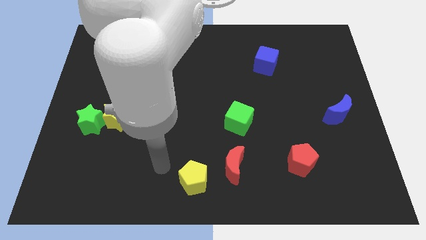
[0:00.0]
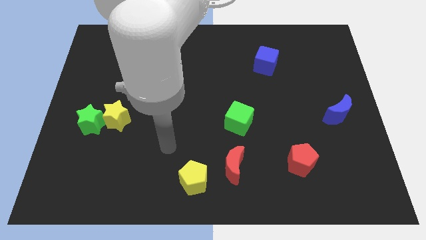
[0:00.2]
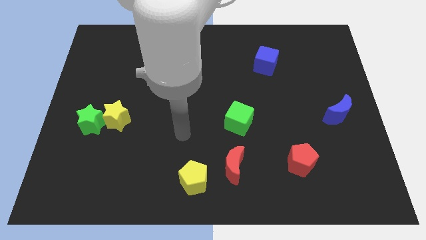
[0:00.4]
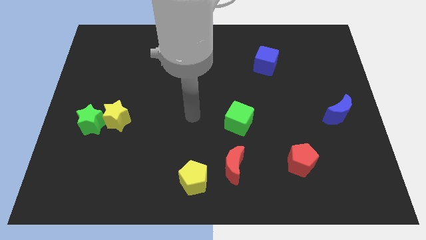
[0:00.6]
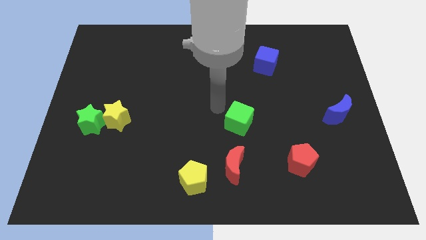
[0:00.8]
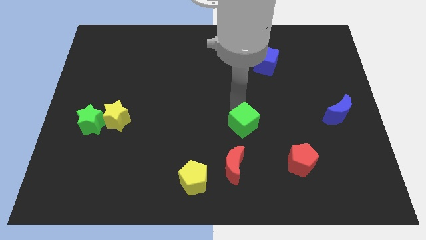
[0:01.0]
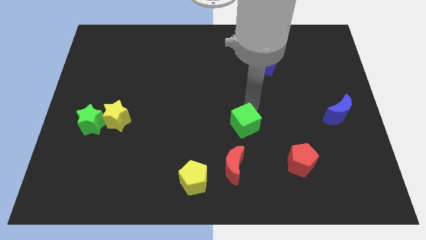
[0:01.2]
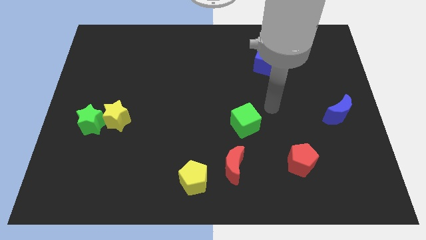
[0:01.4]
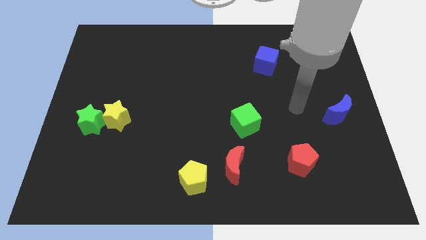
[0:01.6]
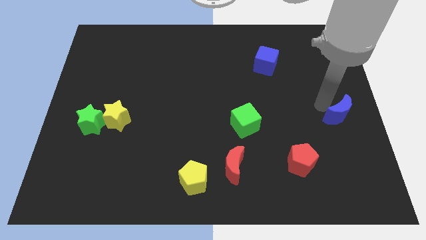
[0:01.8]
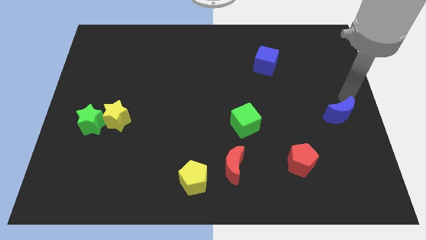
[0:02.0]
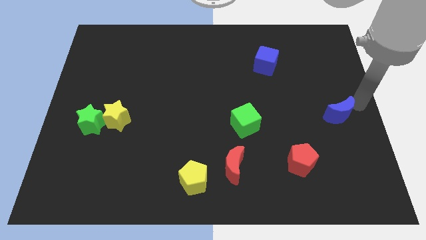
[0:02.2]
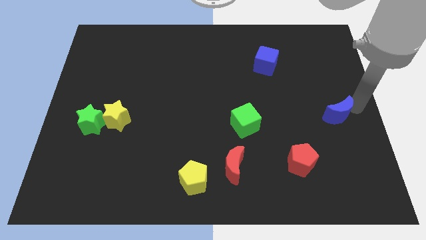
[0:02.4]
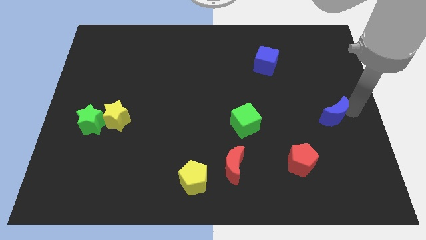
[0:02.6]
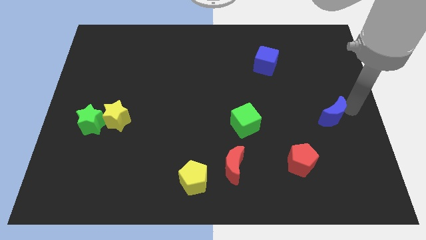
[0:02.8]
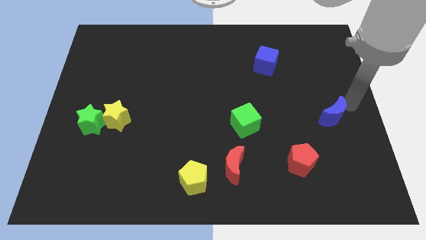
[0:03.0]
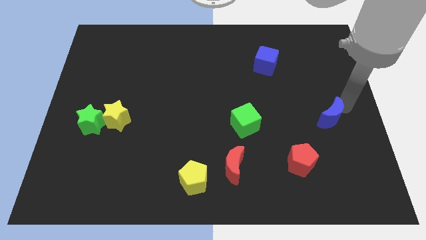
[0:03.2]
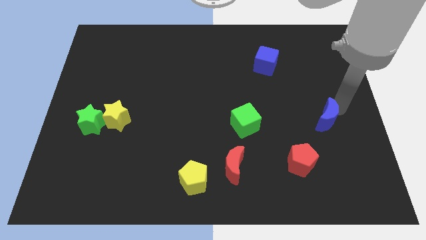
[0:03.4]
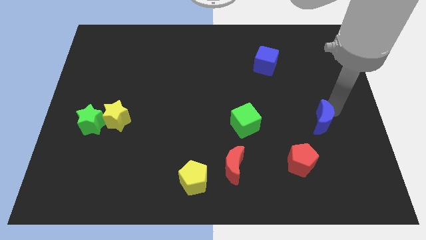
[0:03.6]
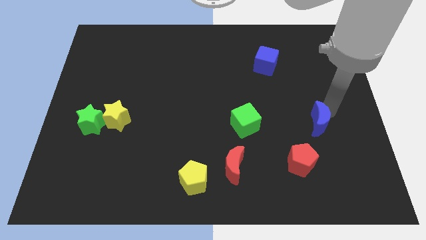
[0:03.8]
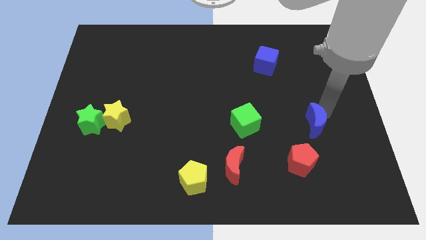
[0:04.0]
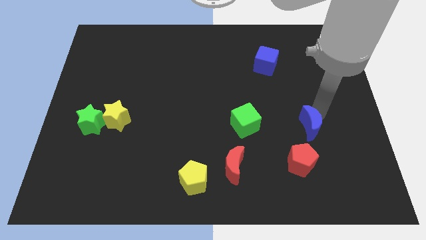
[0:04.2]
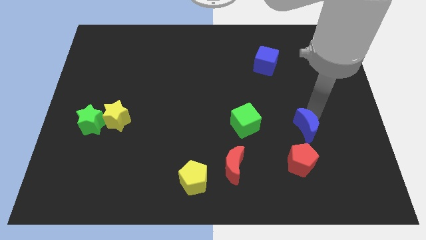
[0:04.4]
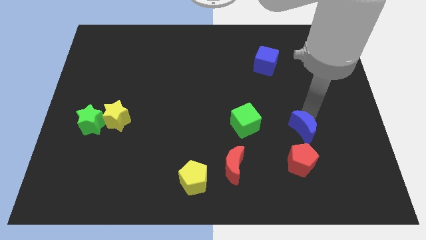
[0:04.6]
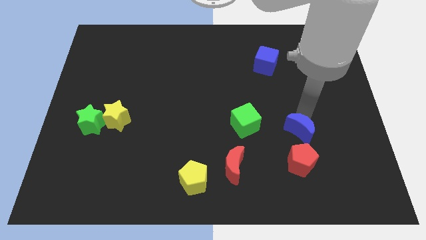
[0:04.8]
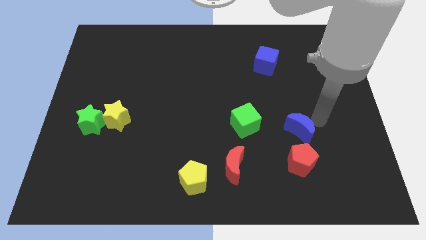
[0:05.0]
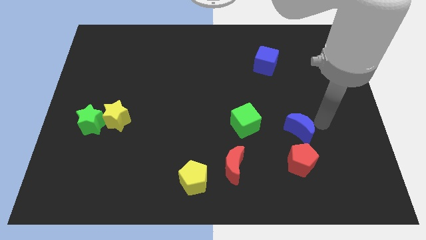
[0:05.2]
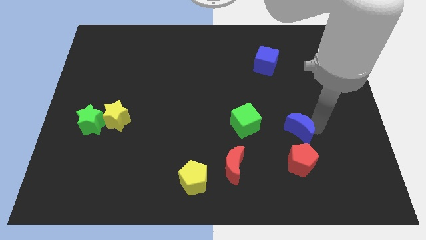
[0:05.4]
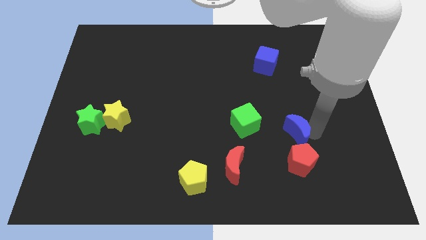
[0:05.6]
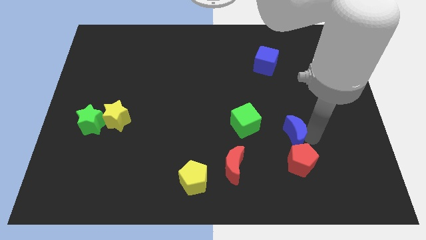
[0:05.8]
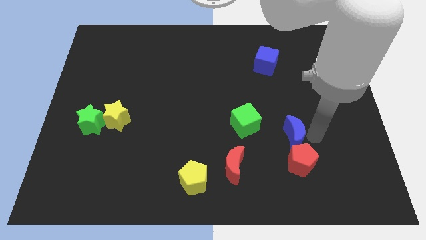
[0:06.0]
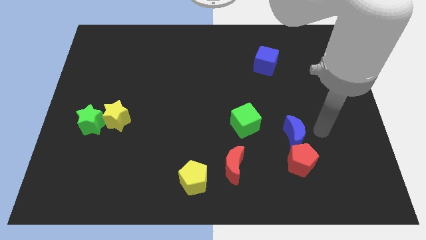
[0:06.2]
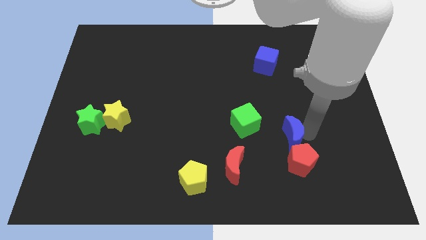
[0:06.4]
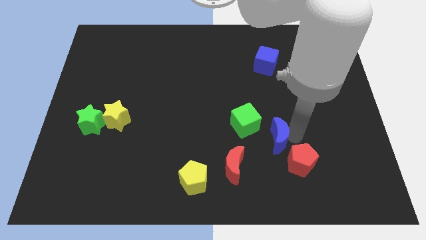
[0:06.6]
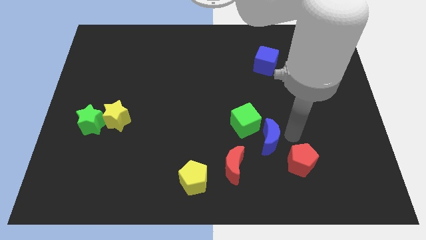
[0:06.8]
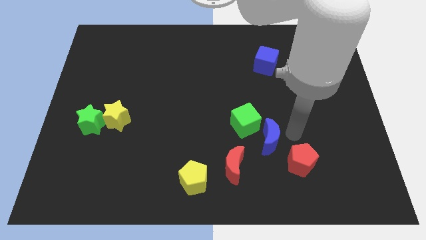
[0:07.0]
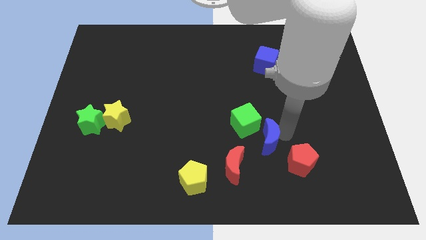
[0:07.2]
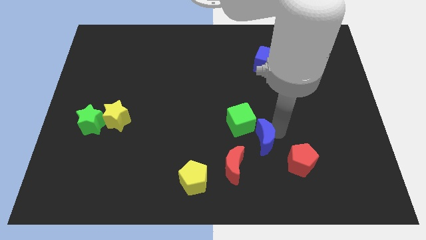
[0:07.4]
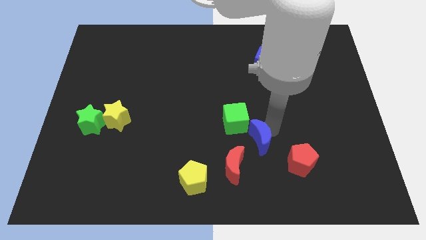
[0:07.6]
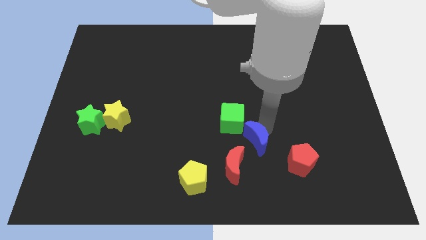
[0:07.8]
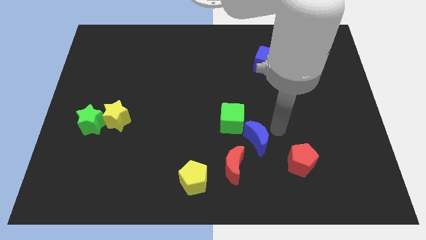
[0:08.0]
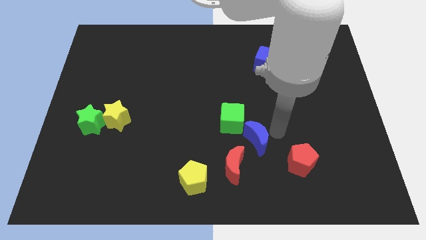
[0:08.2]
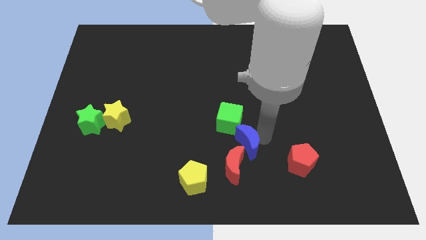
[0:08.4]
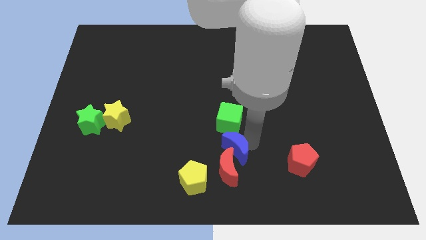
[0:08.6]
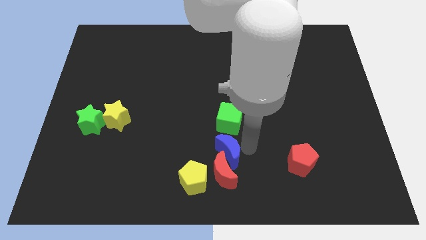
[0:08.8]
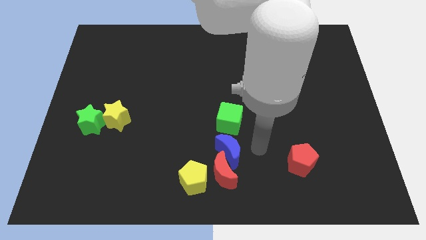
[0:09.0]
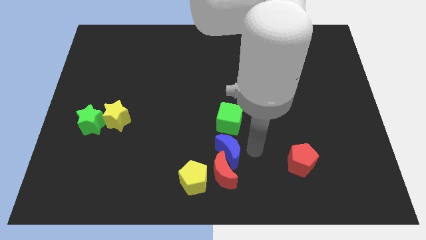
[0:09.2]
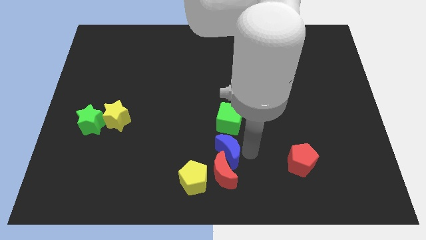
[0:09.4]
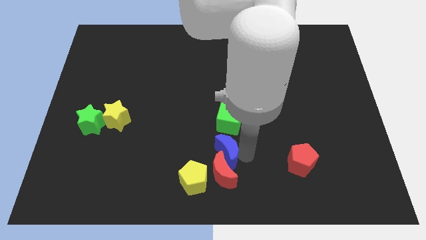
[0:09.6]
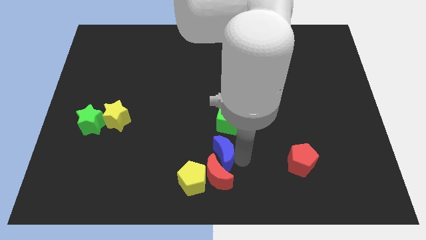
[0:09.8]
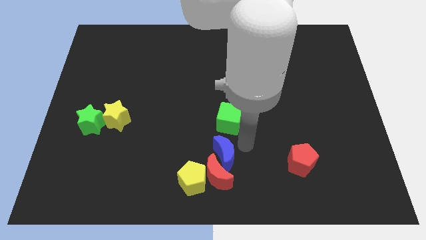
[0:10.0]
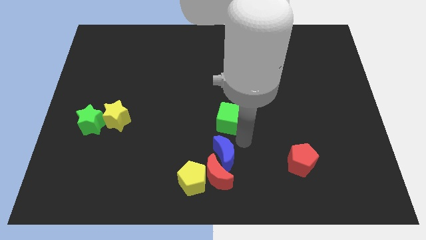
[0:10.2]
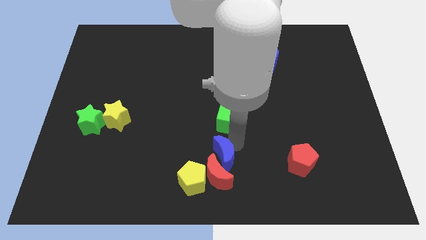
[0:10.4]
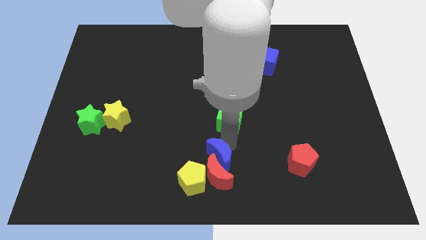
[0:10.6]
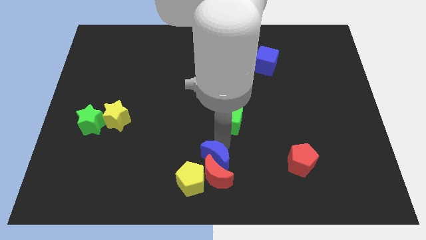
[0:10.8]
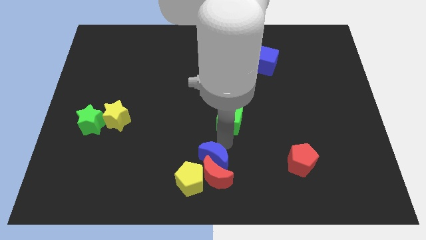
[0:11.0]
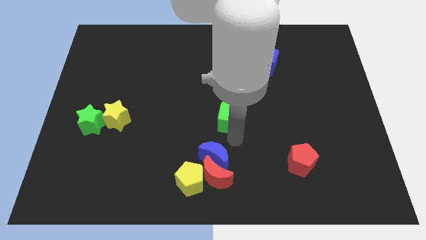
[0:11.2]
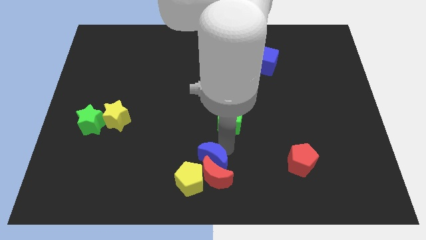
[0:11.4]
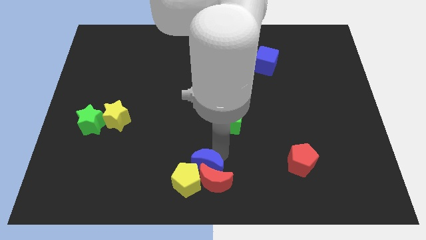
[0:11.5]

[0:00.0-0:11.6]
move the blue moon next to the yellow pentagon

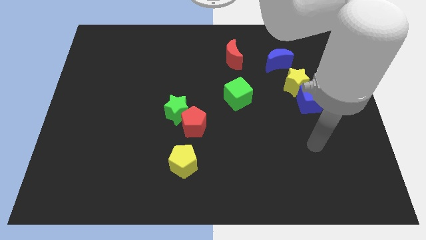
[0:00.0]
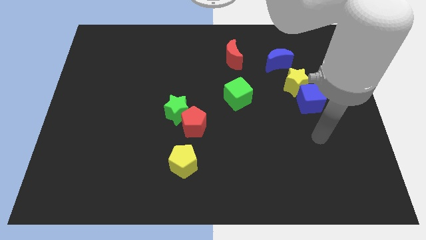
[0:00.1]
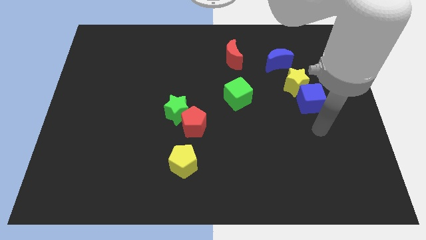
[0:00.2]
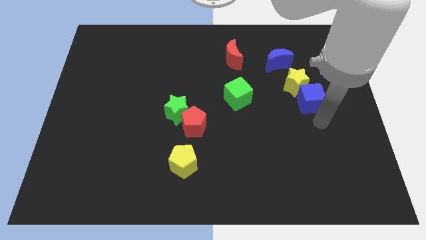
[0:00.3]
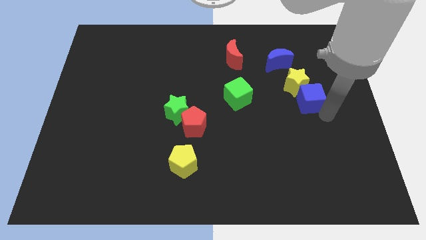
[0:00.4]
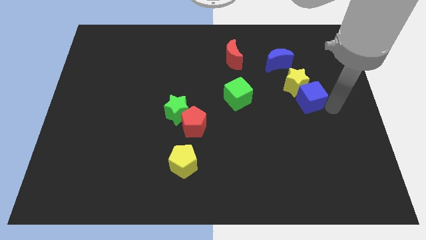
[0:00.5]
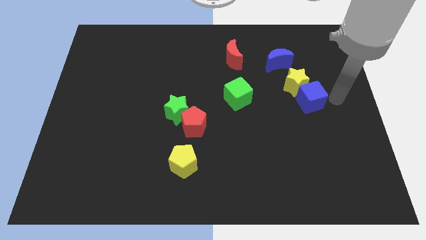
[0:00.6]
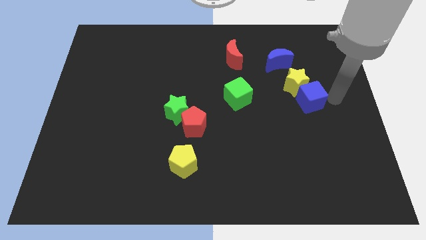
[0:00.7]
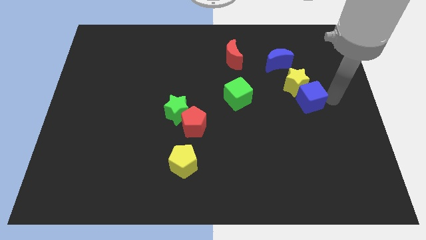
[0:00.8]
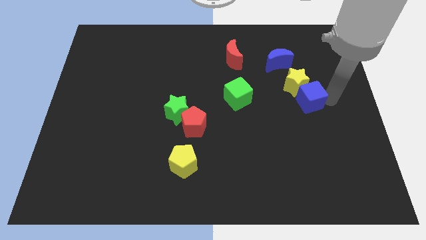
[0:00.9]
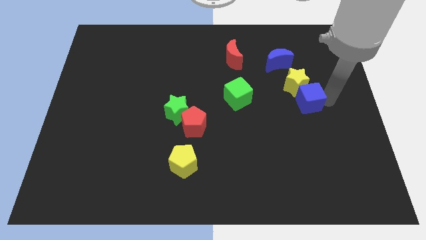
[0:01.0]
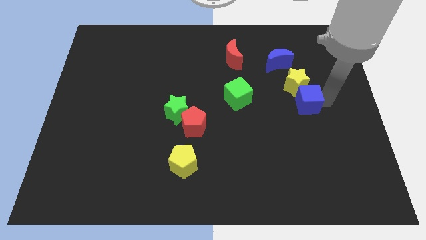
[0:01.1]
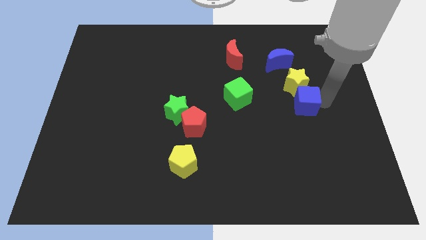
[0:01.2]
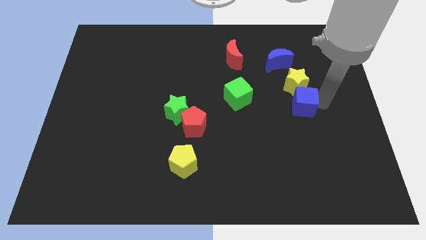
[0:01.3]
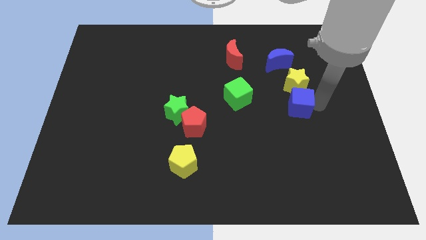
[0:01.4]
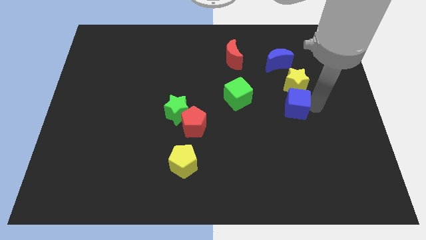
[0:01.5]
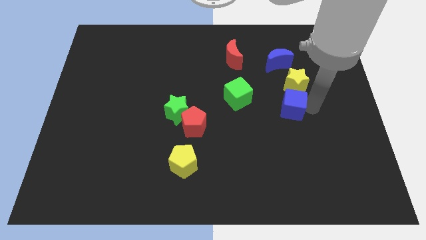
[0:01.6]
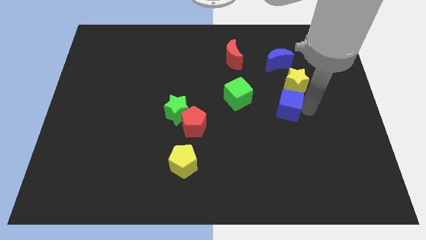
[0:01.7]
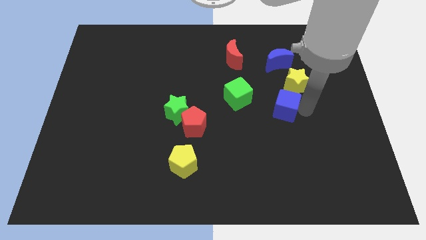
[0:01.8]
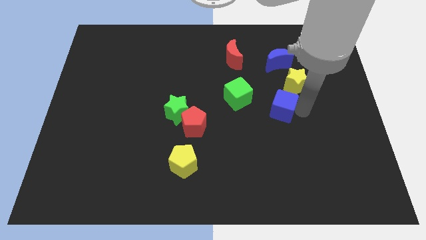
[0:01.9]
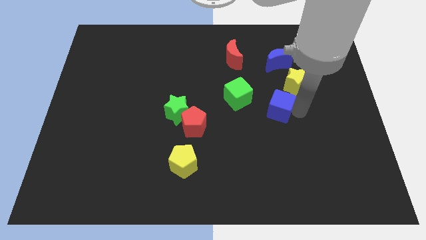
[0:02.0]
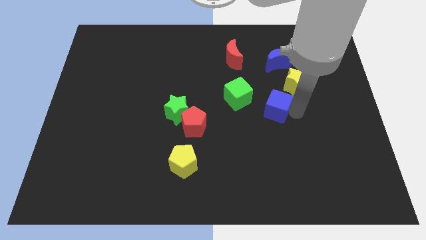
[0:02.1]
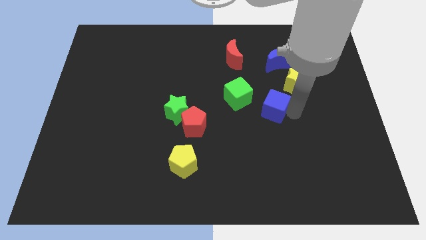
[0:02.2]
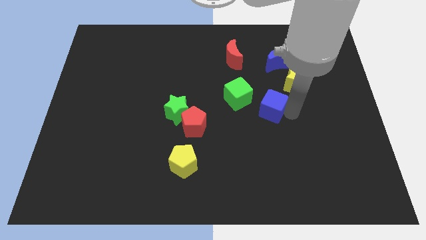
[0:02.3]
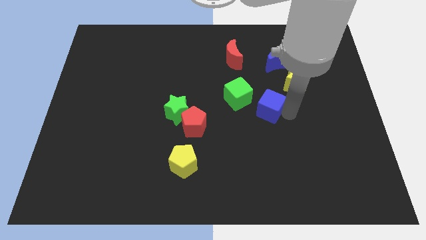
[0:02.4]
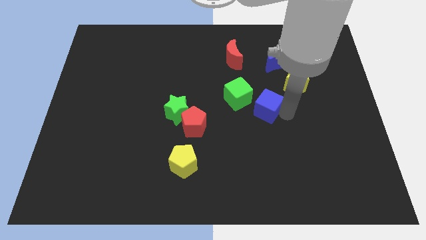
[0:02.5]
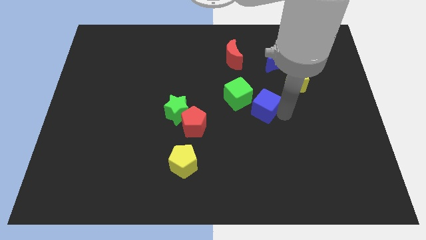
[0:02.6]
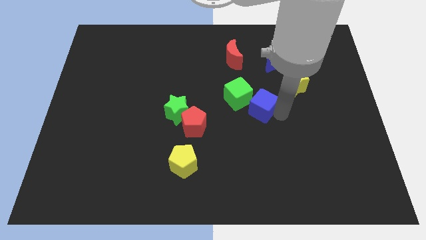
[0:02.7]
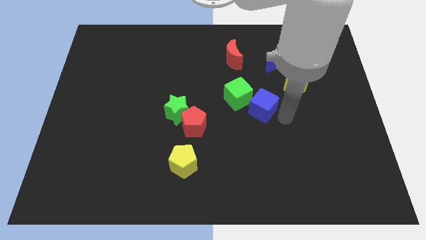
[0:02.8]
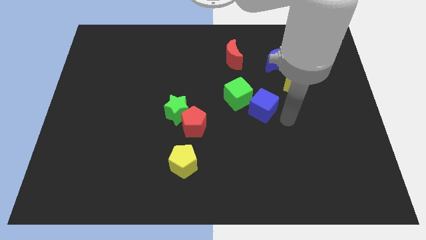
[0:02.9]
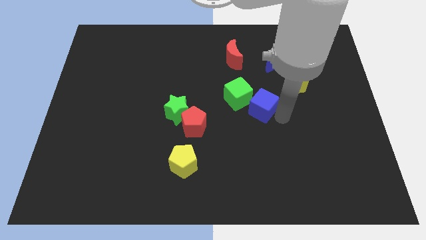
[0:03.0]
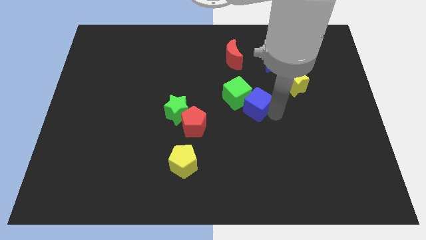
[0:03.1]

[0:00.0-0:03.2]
move the blue cube next to the green cube
